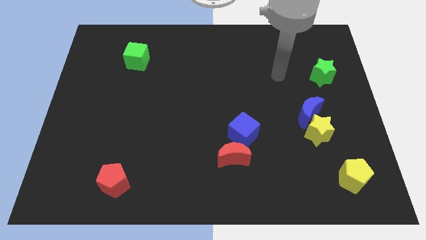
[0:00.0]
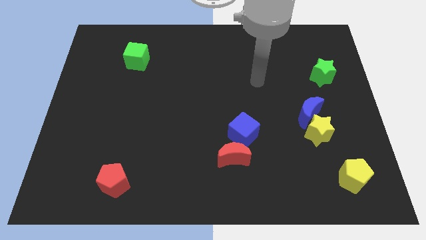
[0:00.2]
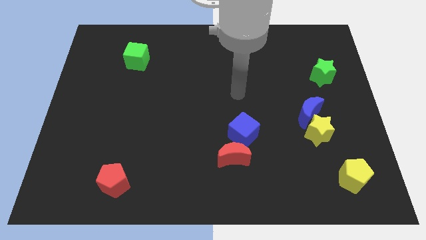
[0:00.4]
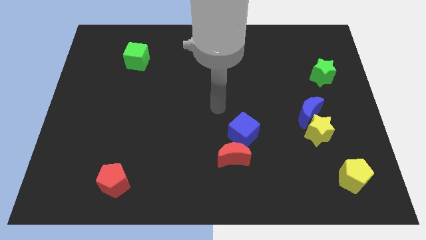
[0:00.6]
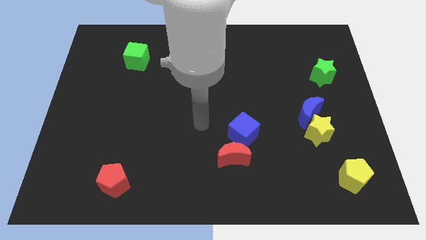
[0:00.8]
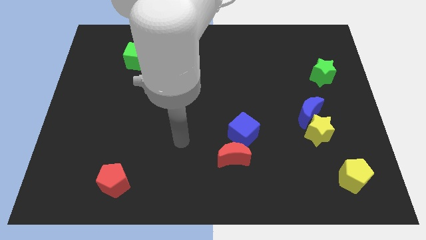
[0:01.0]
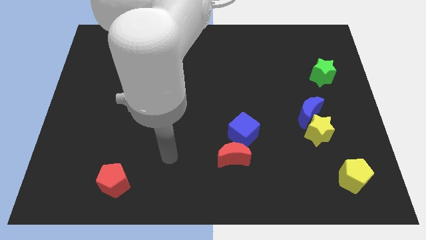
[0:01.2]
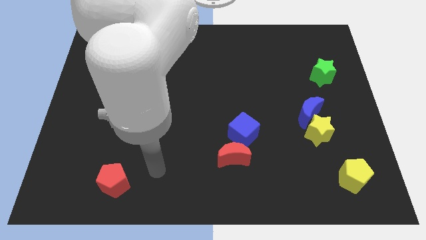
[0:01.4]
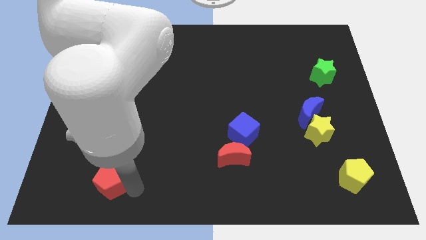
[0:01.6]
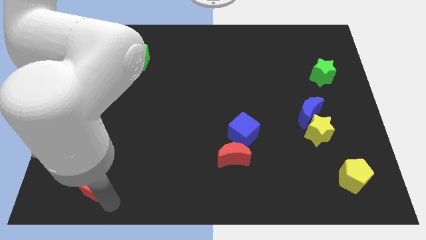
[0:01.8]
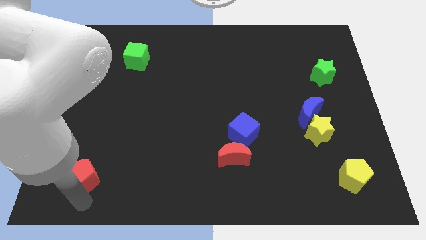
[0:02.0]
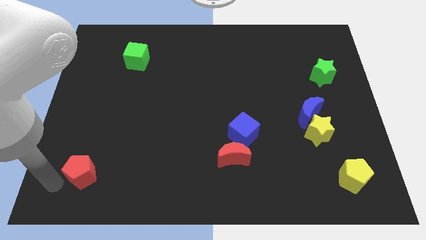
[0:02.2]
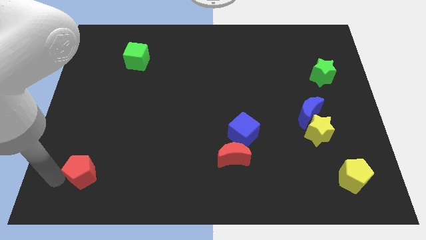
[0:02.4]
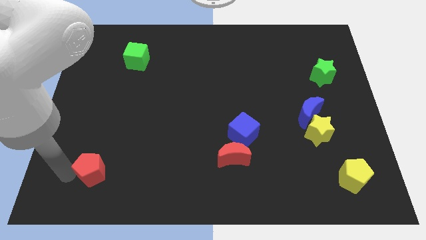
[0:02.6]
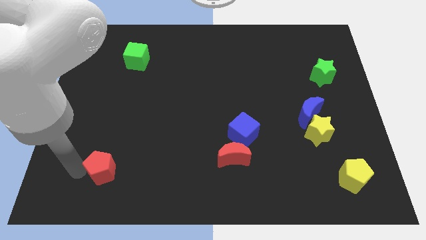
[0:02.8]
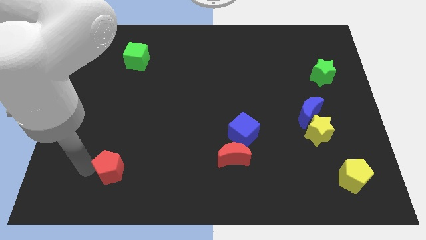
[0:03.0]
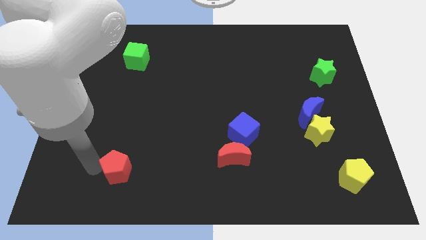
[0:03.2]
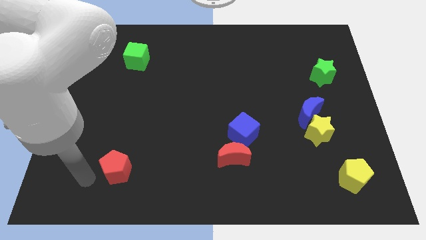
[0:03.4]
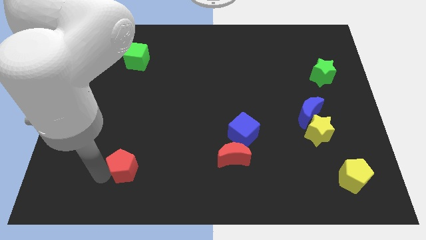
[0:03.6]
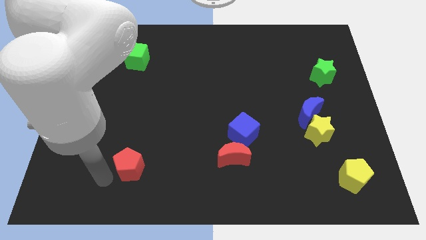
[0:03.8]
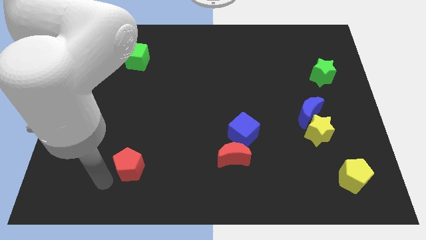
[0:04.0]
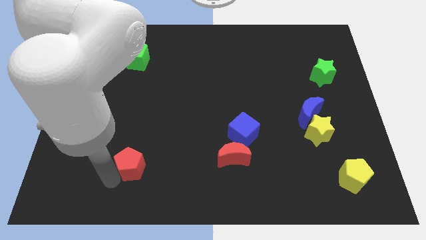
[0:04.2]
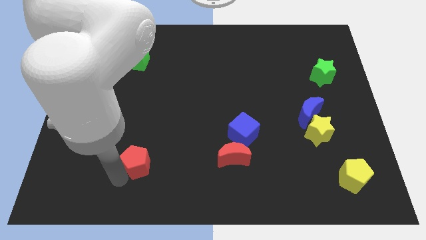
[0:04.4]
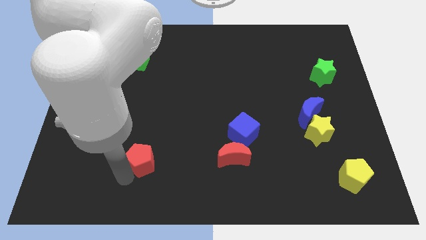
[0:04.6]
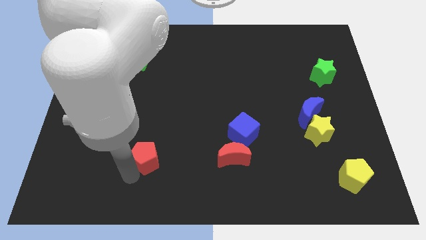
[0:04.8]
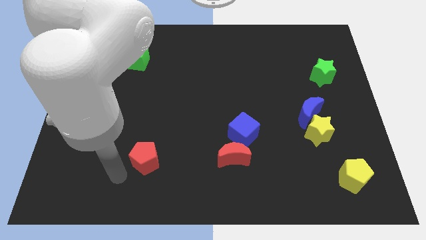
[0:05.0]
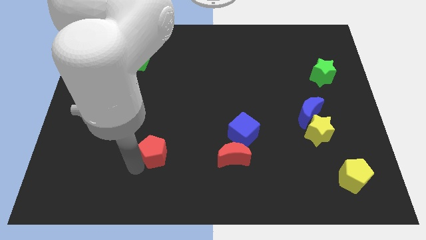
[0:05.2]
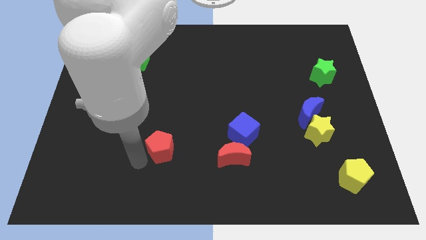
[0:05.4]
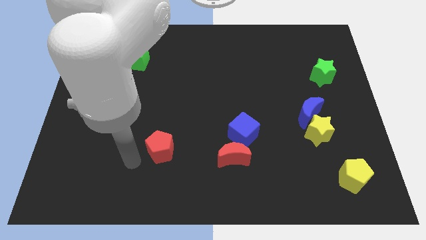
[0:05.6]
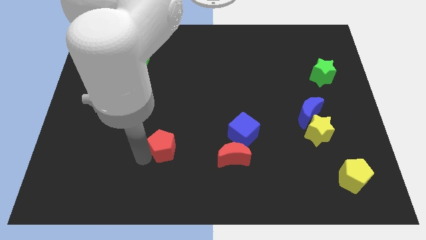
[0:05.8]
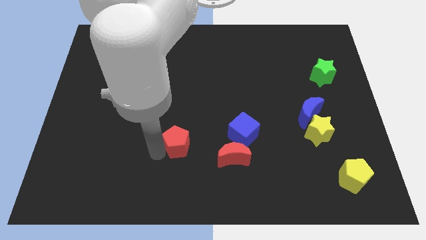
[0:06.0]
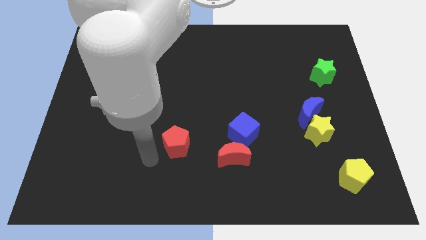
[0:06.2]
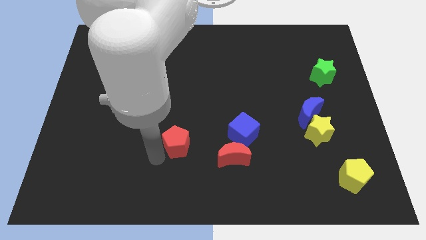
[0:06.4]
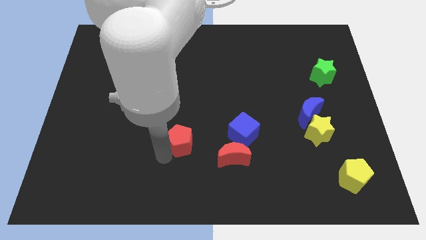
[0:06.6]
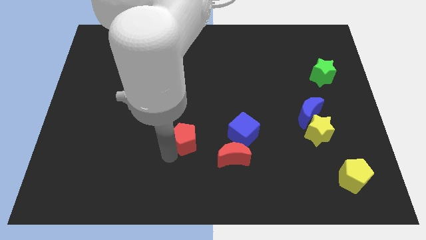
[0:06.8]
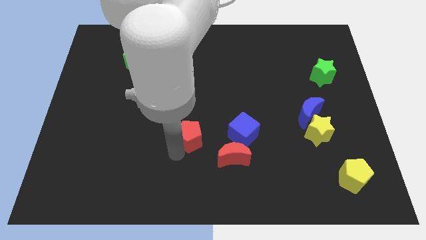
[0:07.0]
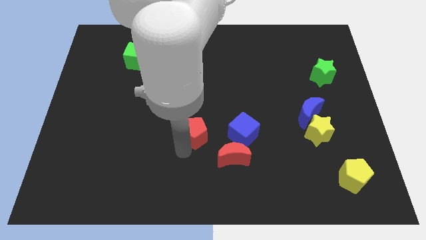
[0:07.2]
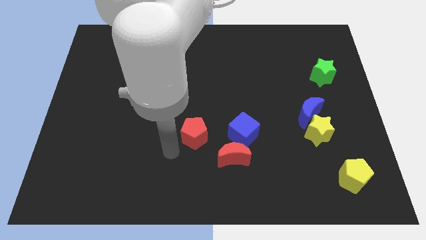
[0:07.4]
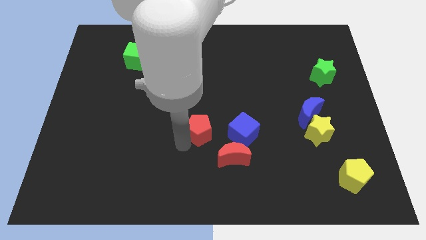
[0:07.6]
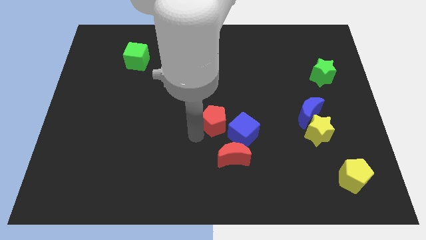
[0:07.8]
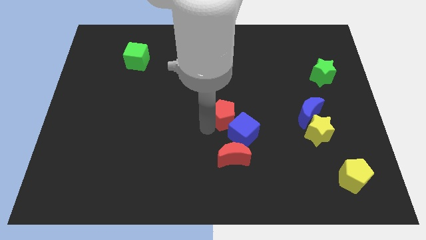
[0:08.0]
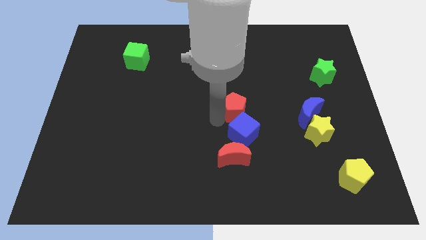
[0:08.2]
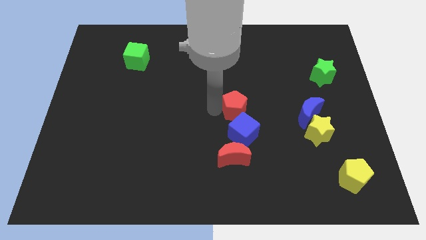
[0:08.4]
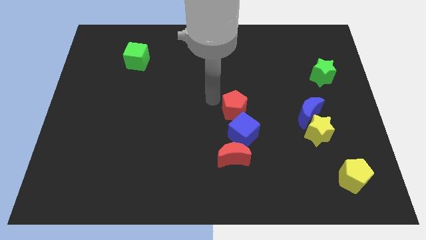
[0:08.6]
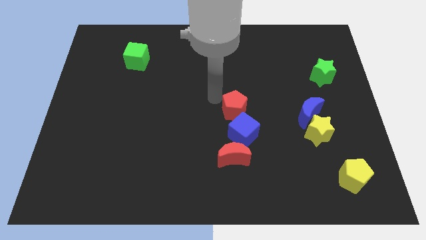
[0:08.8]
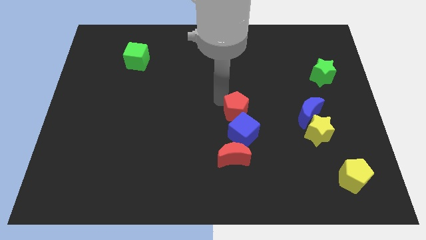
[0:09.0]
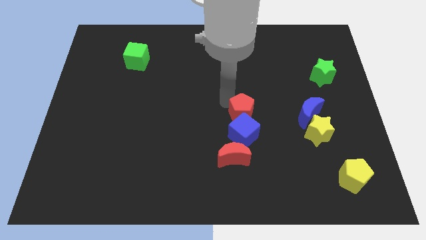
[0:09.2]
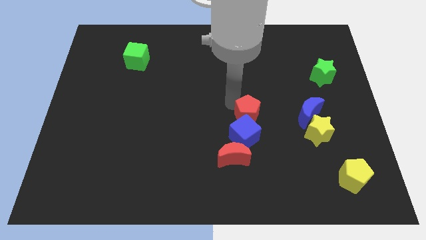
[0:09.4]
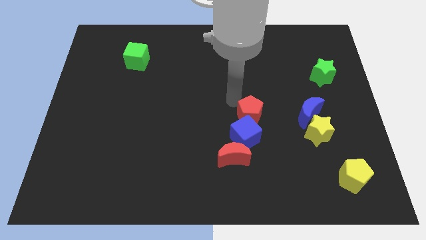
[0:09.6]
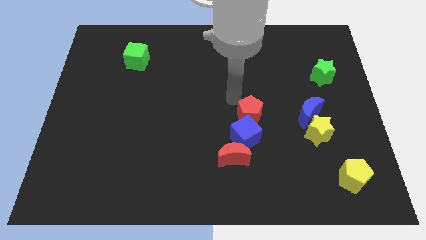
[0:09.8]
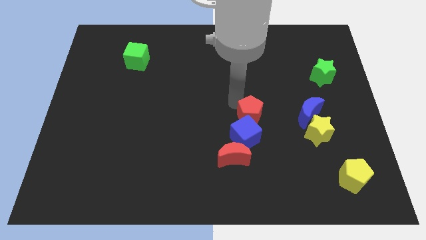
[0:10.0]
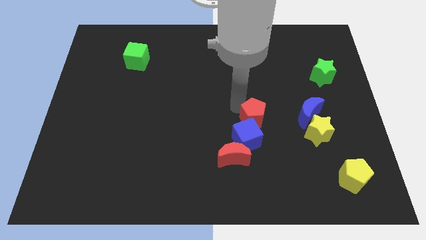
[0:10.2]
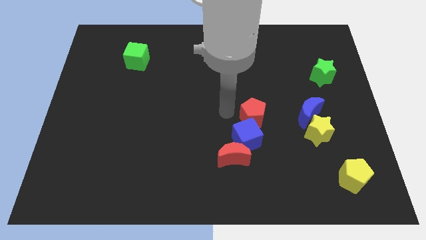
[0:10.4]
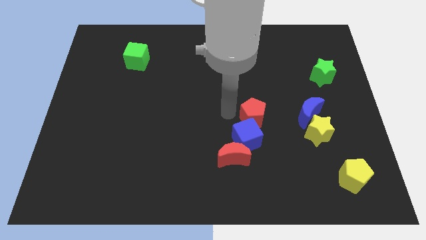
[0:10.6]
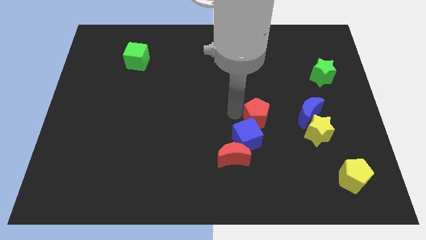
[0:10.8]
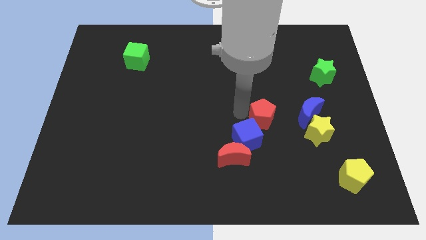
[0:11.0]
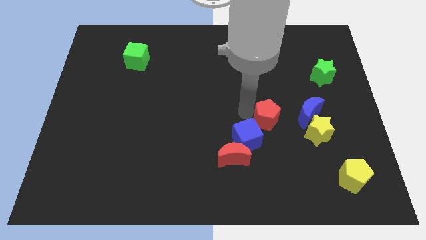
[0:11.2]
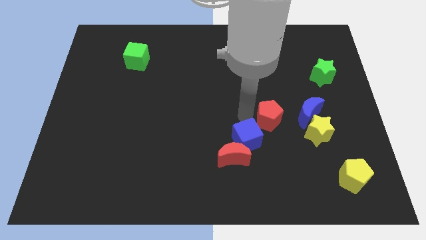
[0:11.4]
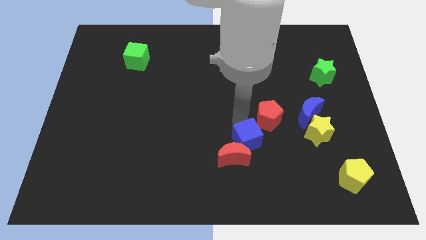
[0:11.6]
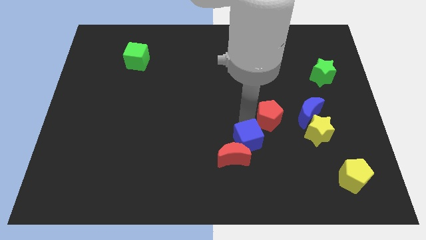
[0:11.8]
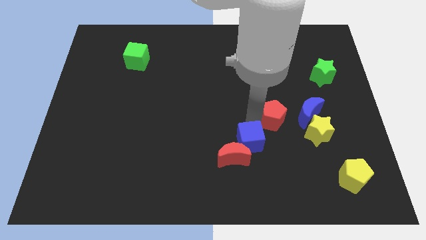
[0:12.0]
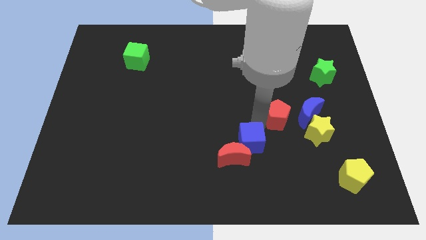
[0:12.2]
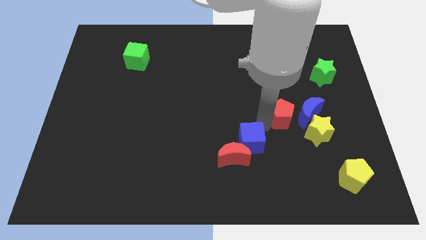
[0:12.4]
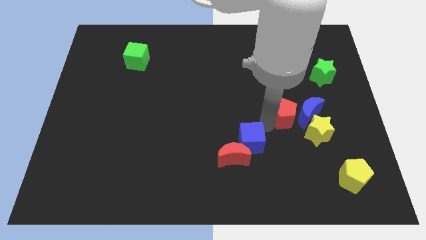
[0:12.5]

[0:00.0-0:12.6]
slide the red pentagon close to the blue moon

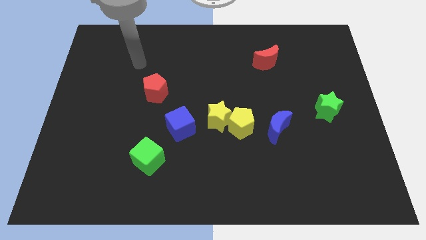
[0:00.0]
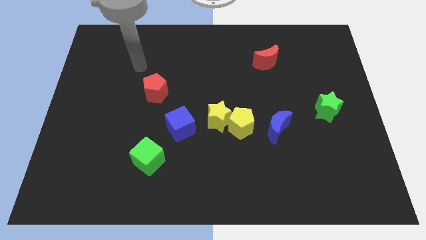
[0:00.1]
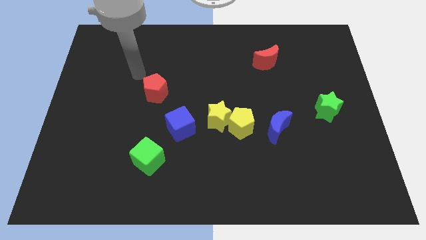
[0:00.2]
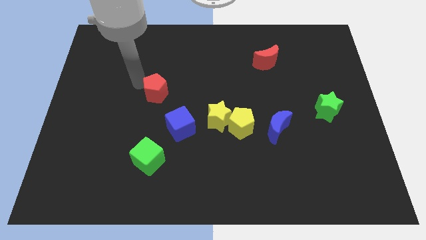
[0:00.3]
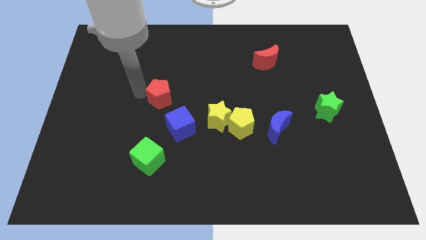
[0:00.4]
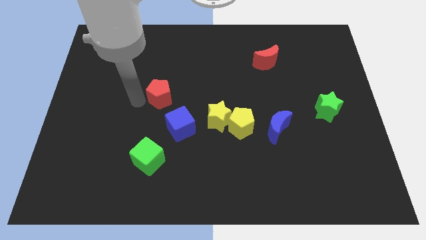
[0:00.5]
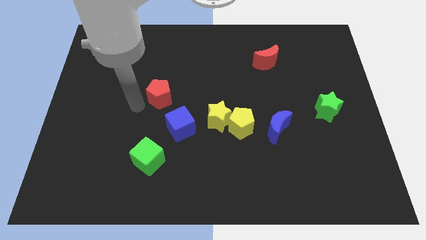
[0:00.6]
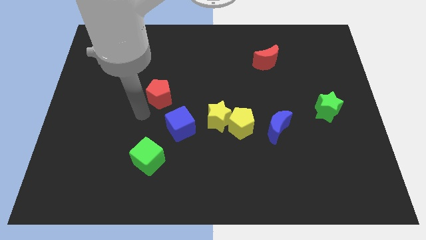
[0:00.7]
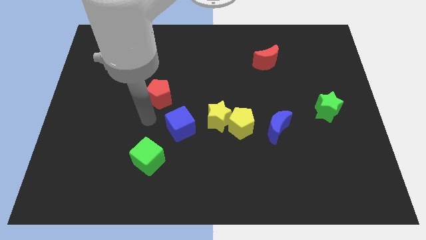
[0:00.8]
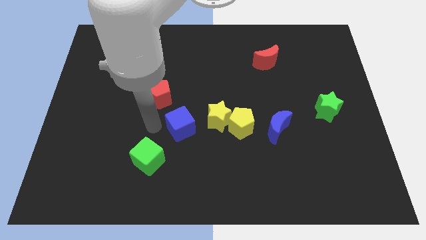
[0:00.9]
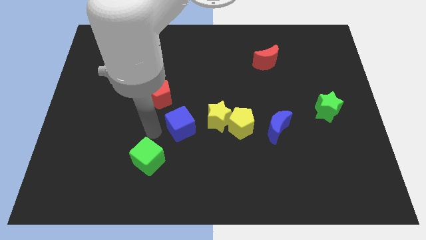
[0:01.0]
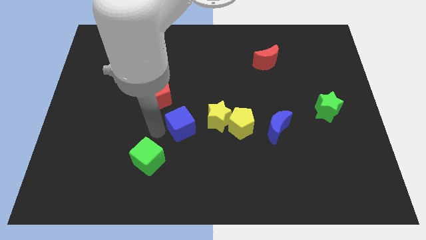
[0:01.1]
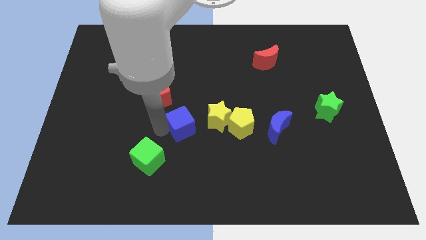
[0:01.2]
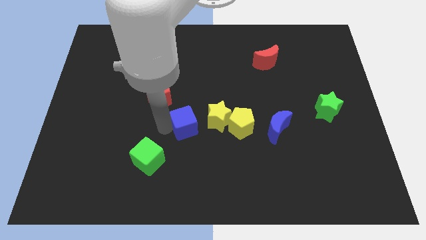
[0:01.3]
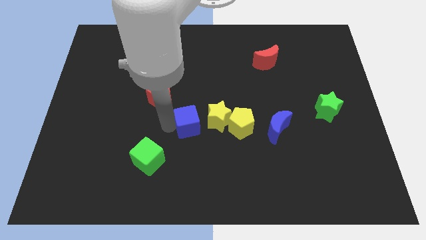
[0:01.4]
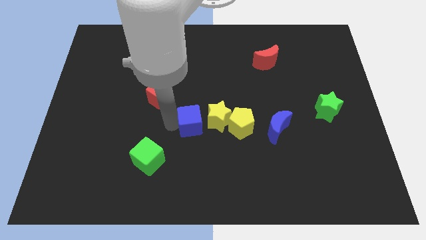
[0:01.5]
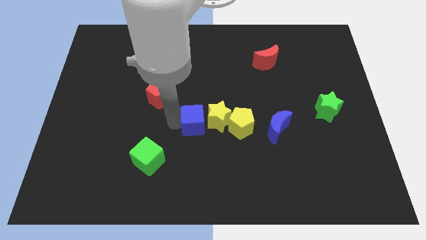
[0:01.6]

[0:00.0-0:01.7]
slide the blue cube towards the yellow star
